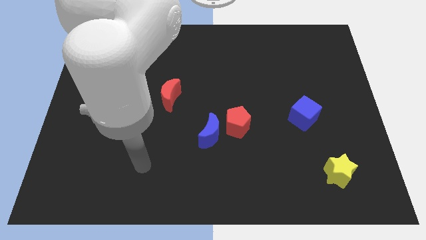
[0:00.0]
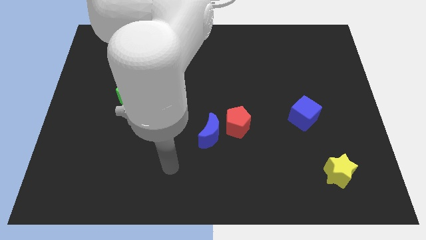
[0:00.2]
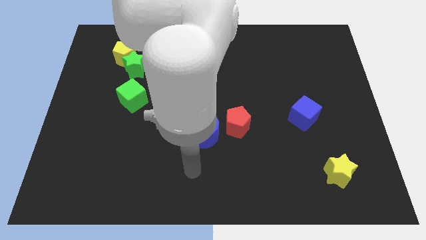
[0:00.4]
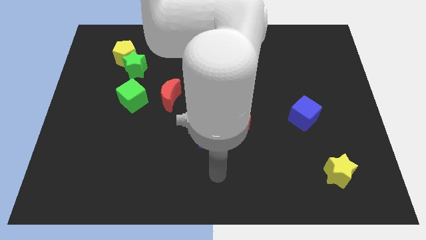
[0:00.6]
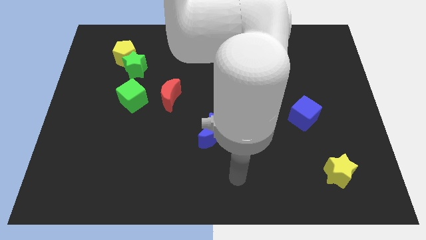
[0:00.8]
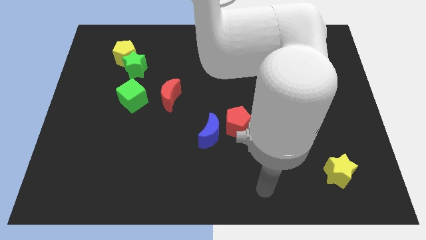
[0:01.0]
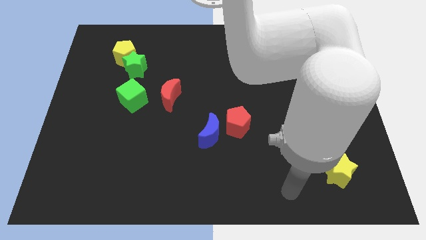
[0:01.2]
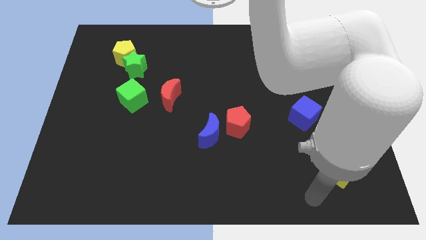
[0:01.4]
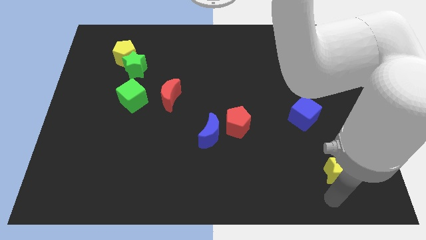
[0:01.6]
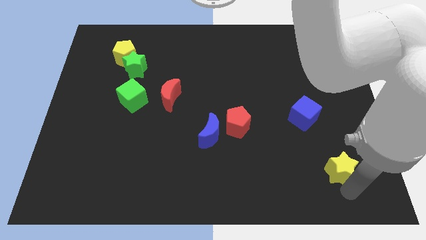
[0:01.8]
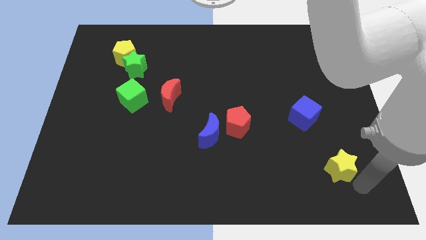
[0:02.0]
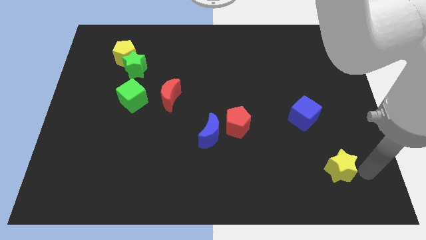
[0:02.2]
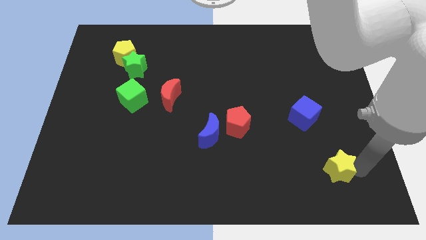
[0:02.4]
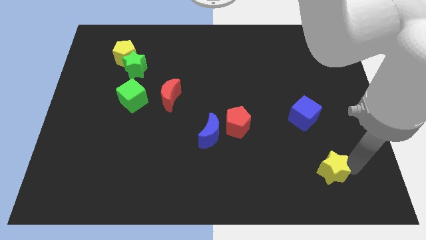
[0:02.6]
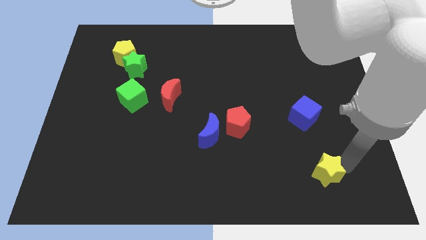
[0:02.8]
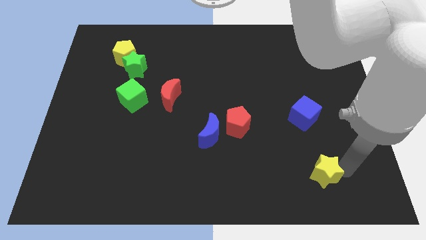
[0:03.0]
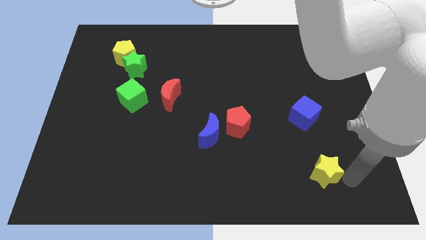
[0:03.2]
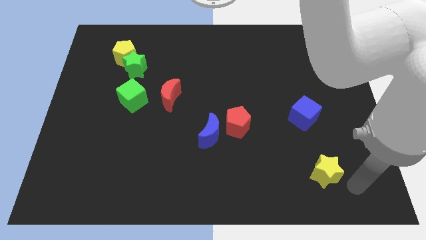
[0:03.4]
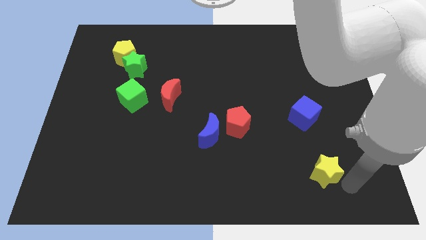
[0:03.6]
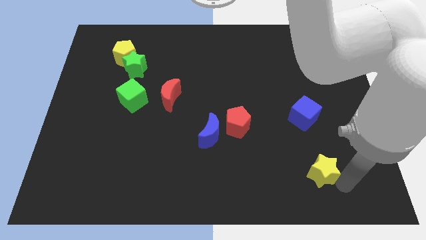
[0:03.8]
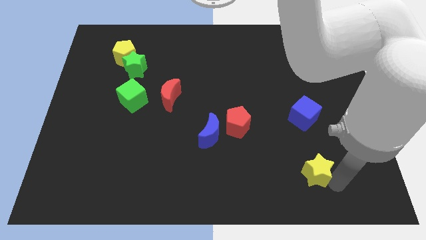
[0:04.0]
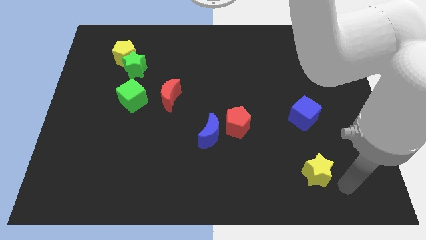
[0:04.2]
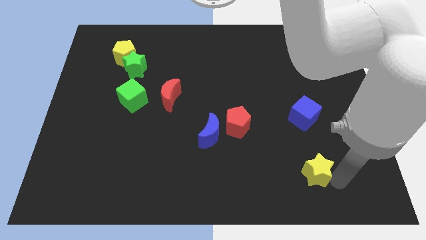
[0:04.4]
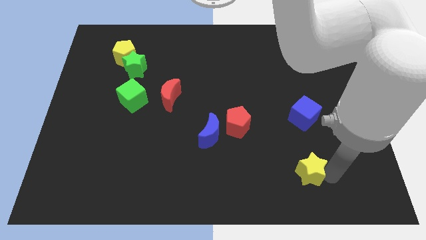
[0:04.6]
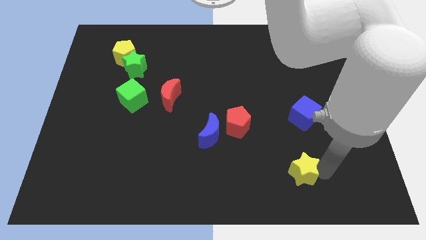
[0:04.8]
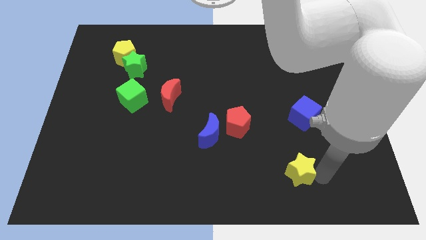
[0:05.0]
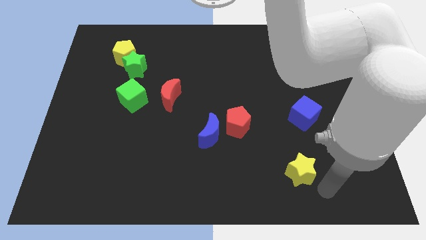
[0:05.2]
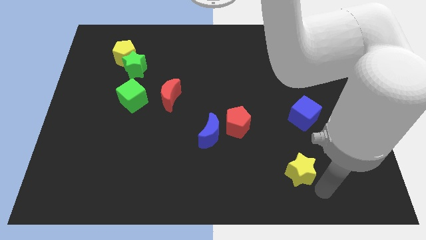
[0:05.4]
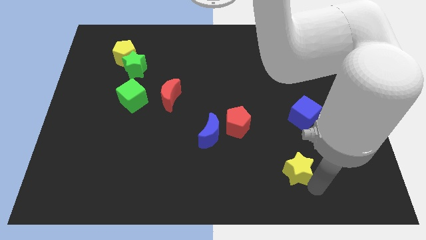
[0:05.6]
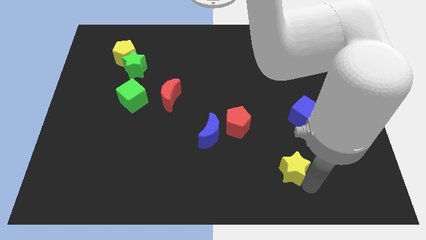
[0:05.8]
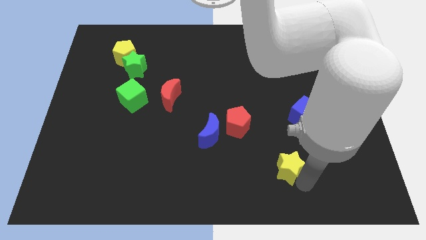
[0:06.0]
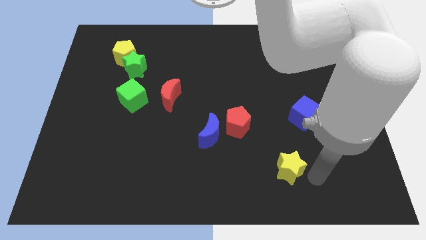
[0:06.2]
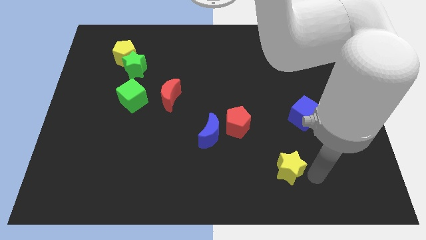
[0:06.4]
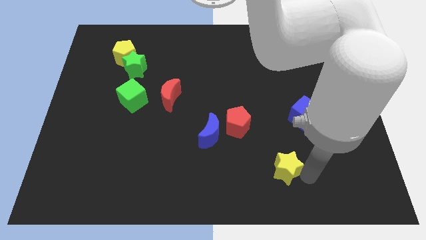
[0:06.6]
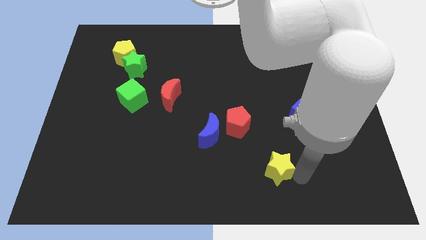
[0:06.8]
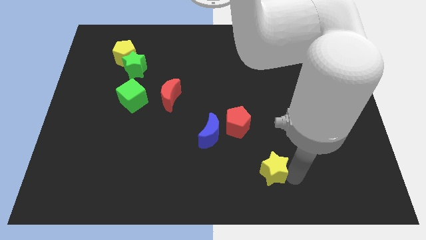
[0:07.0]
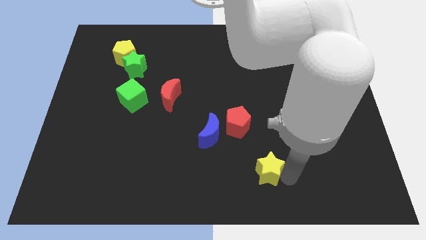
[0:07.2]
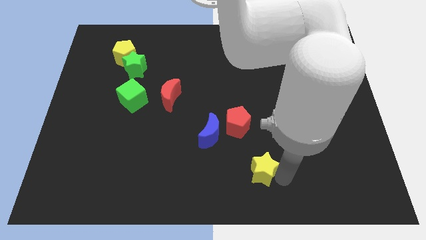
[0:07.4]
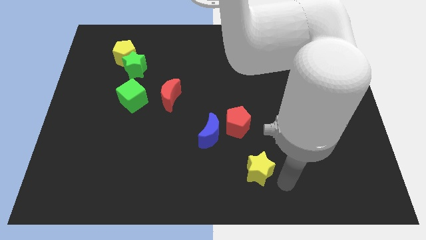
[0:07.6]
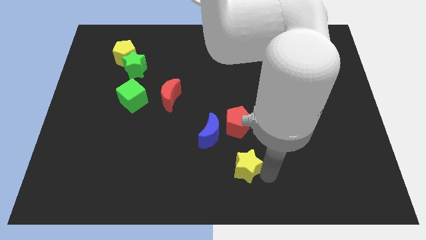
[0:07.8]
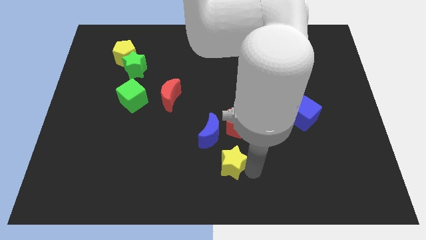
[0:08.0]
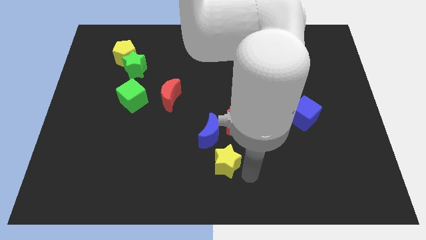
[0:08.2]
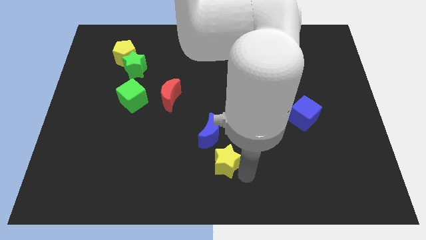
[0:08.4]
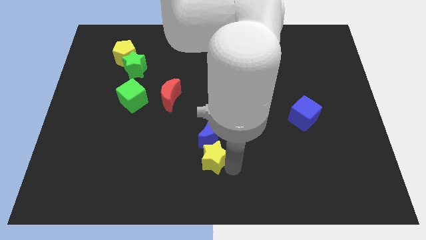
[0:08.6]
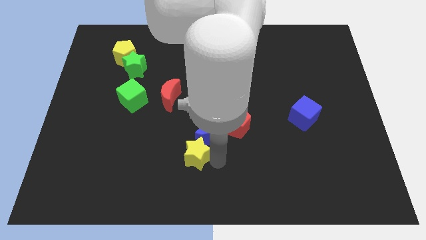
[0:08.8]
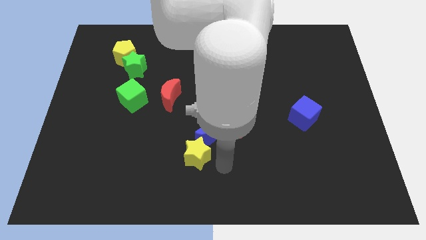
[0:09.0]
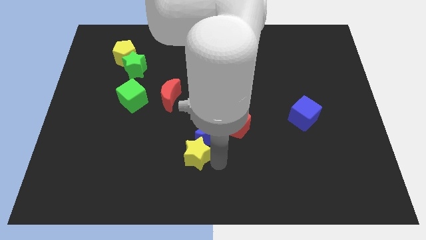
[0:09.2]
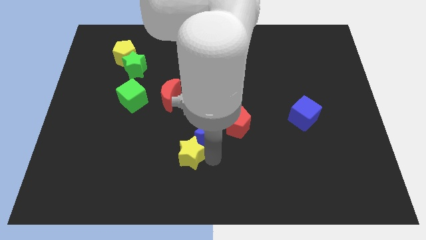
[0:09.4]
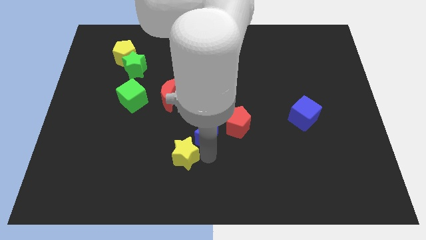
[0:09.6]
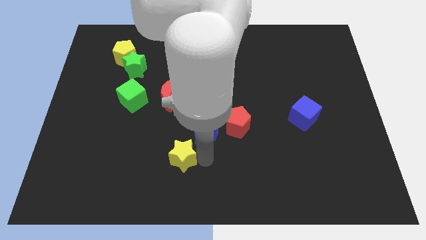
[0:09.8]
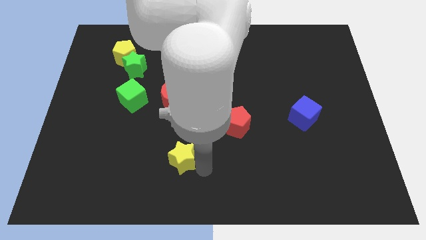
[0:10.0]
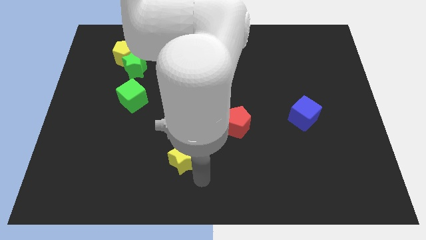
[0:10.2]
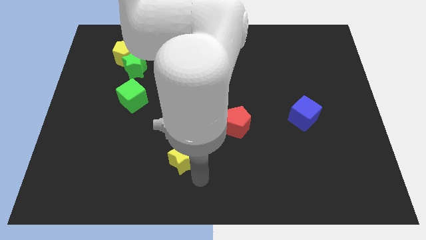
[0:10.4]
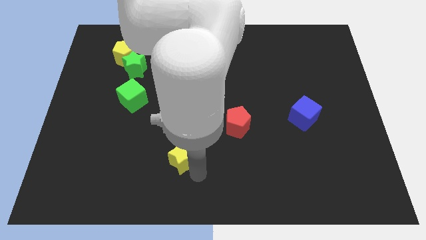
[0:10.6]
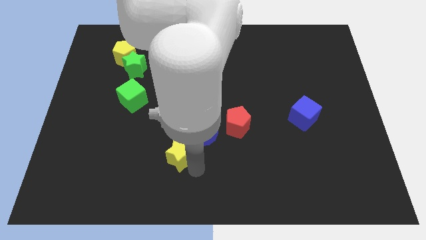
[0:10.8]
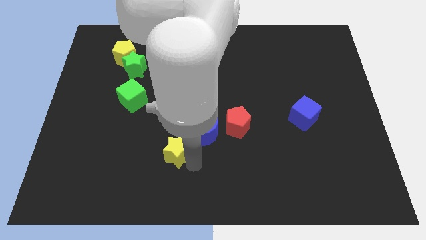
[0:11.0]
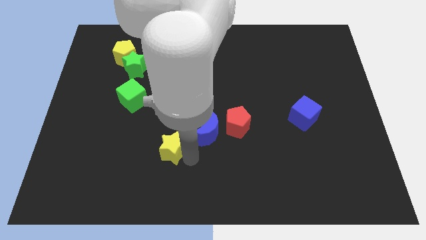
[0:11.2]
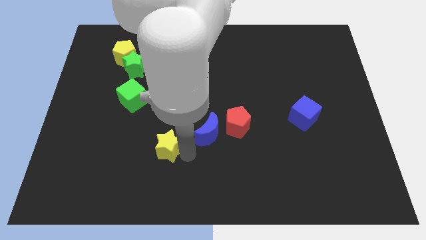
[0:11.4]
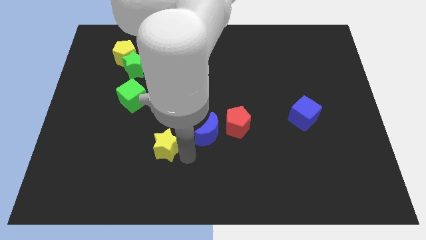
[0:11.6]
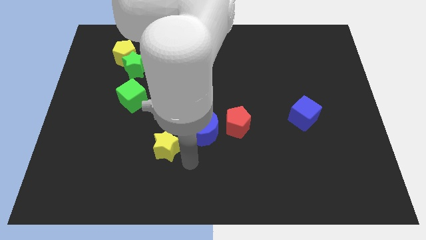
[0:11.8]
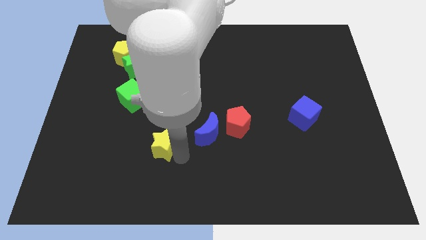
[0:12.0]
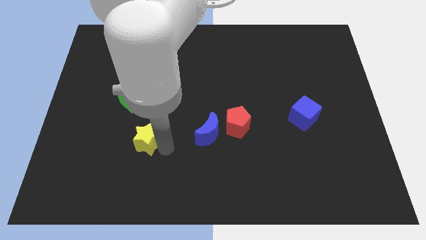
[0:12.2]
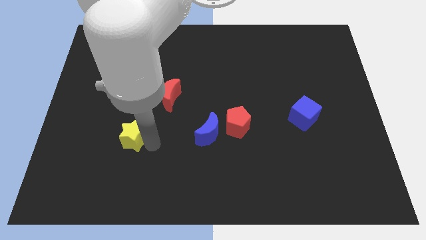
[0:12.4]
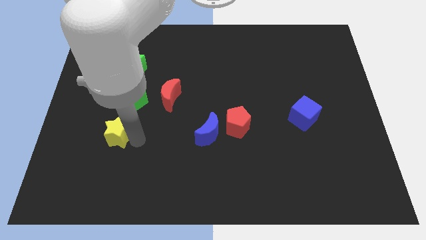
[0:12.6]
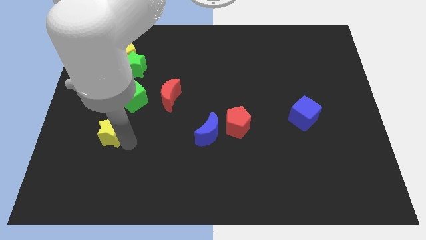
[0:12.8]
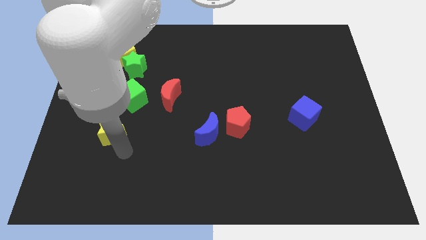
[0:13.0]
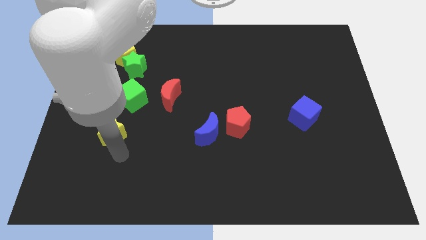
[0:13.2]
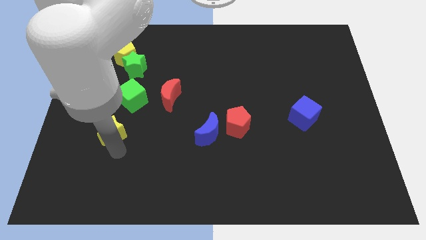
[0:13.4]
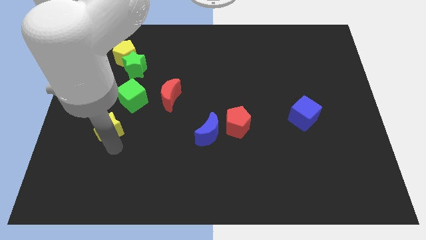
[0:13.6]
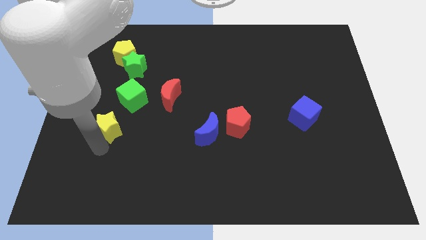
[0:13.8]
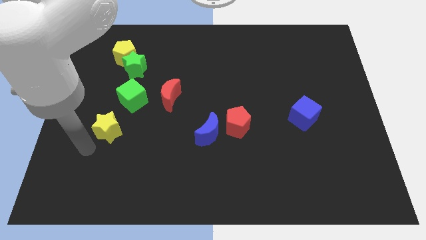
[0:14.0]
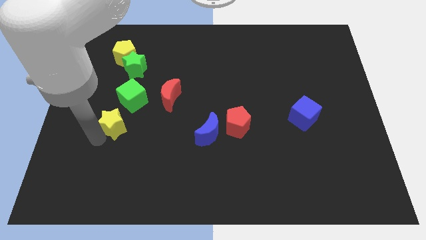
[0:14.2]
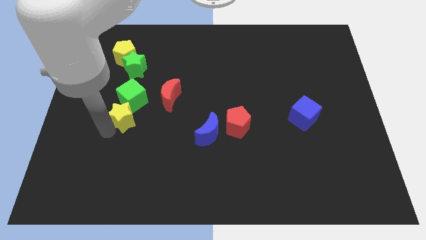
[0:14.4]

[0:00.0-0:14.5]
push the yellow star below the green star
